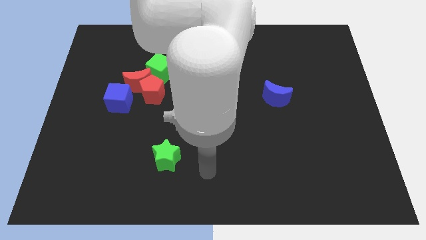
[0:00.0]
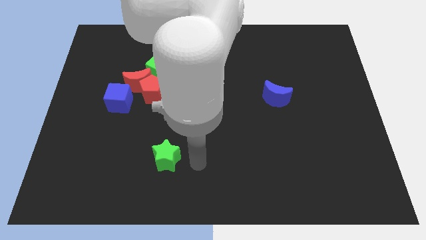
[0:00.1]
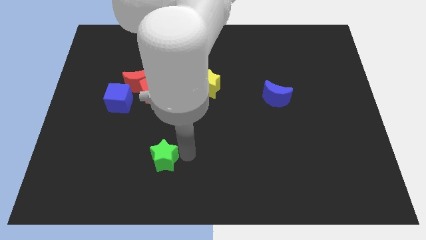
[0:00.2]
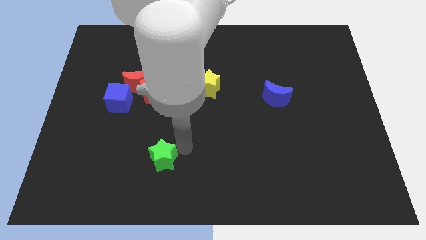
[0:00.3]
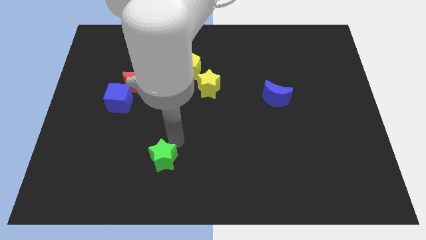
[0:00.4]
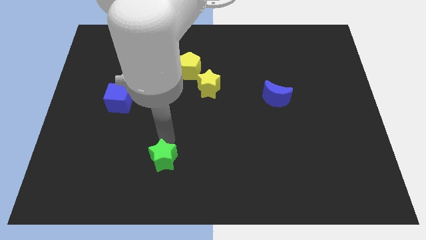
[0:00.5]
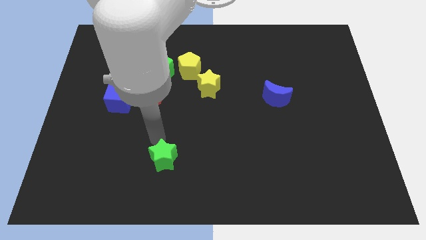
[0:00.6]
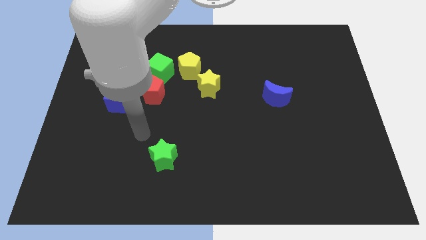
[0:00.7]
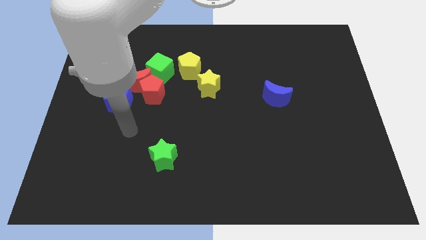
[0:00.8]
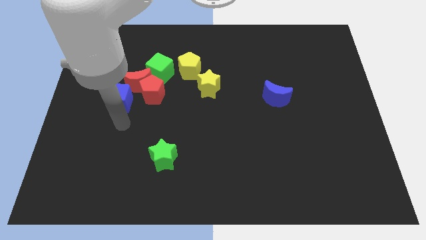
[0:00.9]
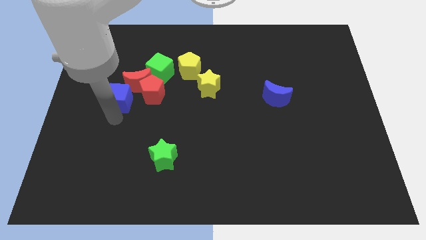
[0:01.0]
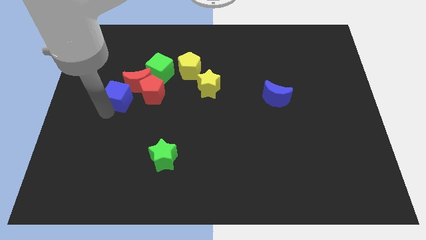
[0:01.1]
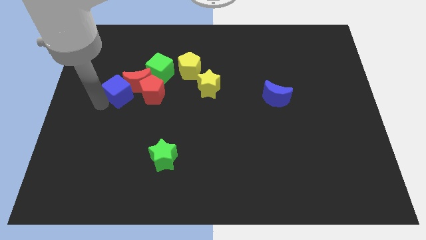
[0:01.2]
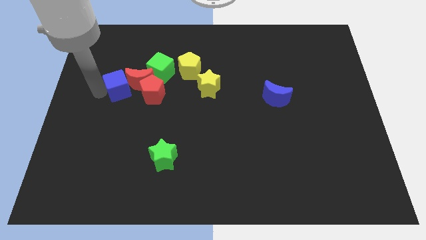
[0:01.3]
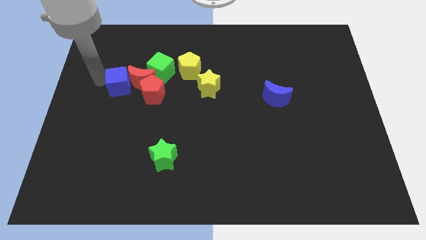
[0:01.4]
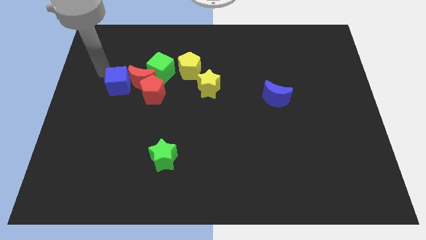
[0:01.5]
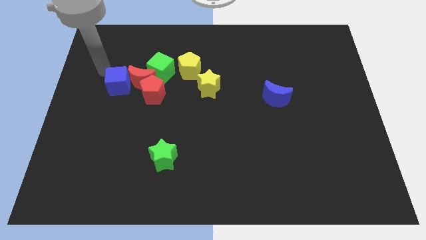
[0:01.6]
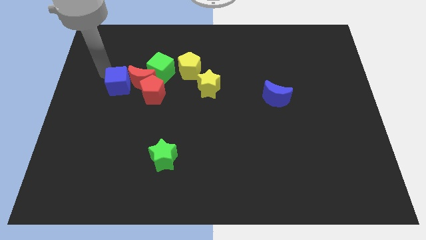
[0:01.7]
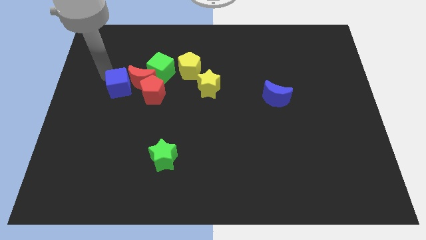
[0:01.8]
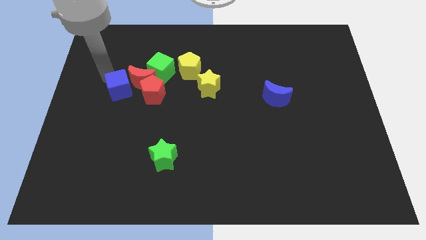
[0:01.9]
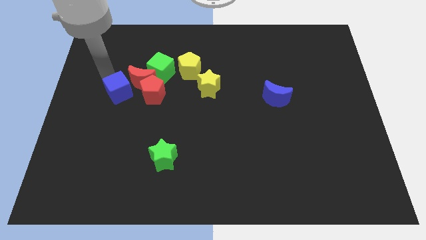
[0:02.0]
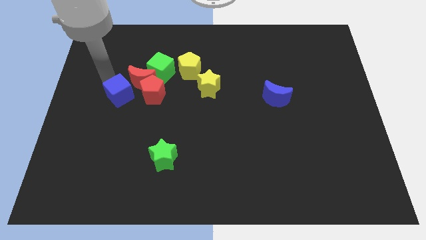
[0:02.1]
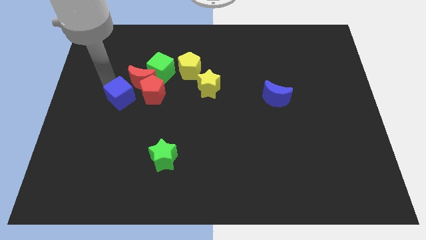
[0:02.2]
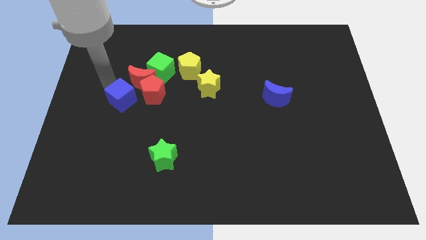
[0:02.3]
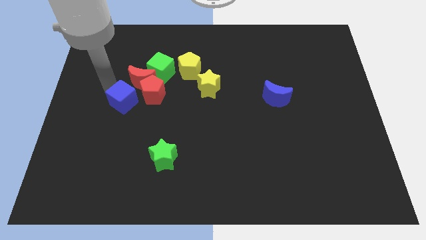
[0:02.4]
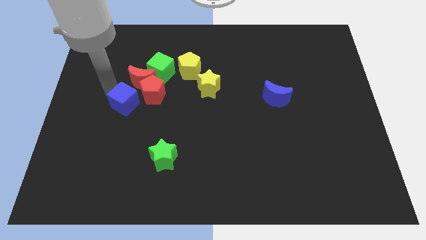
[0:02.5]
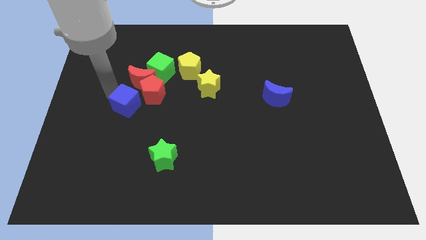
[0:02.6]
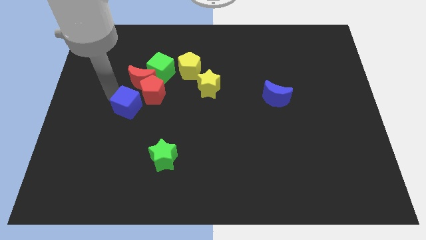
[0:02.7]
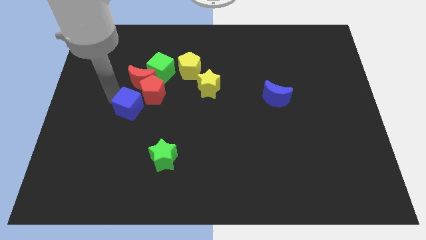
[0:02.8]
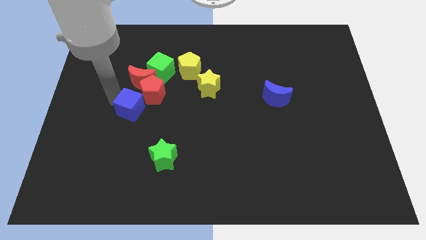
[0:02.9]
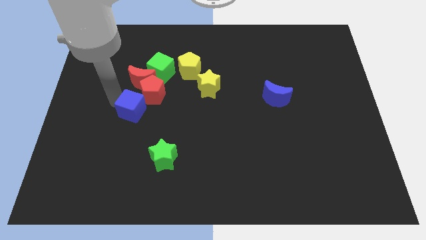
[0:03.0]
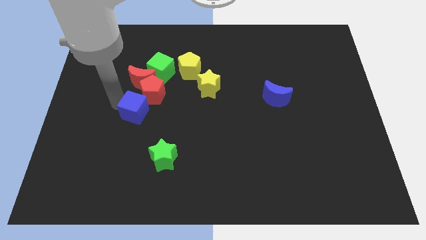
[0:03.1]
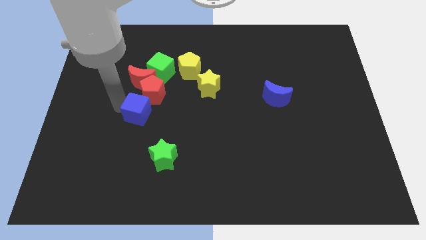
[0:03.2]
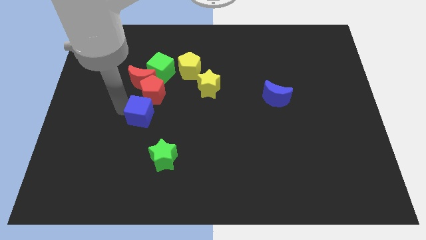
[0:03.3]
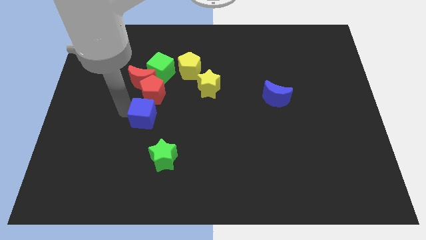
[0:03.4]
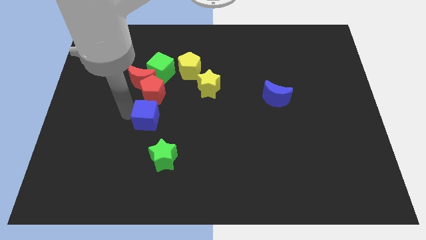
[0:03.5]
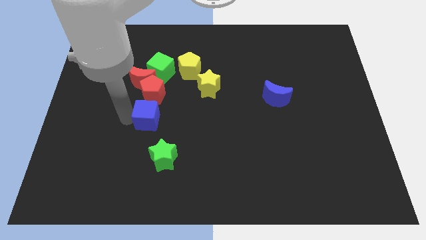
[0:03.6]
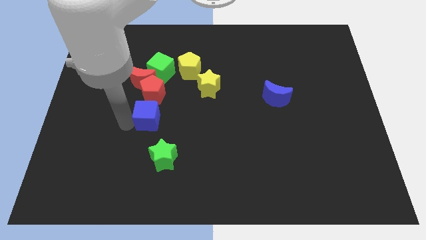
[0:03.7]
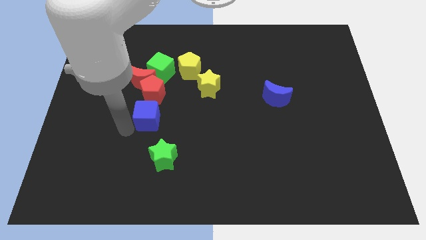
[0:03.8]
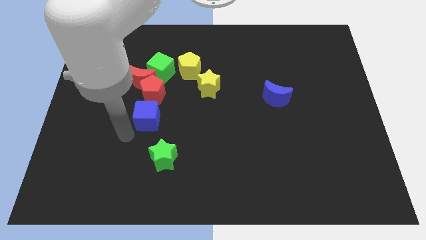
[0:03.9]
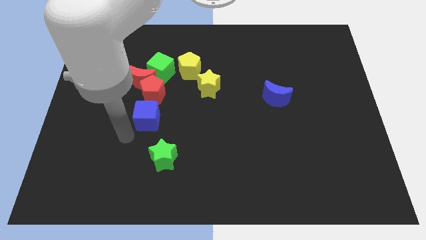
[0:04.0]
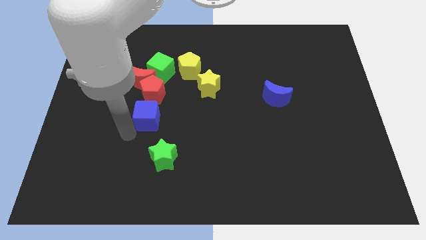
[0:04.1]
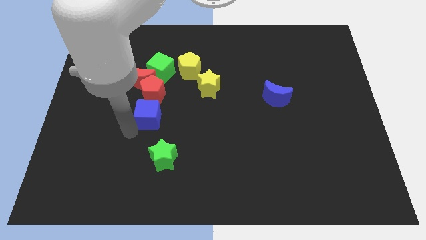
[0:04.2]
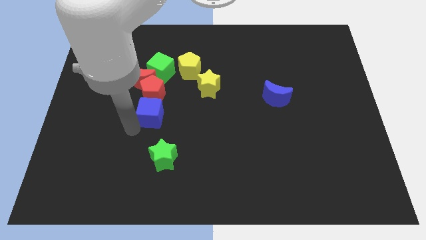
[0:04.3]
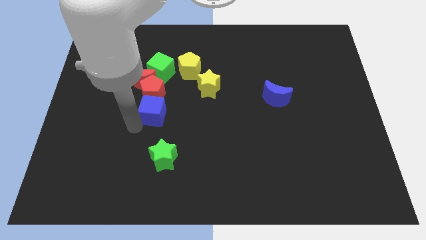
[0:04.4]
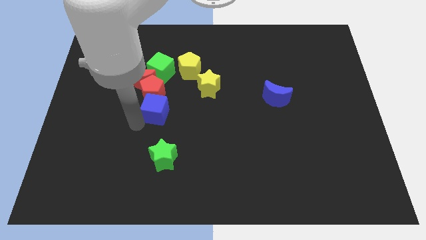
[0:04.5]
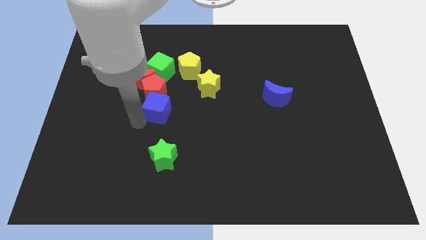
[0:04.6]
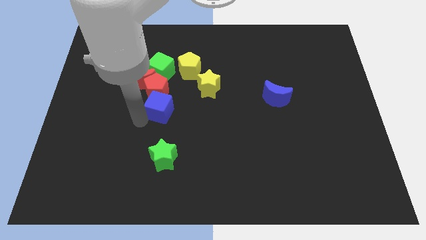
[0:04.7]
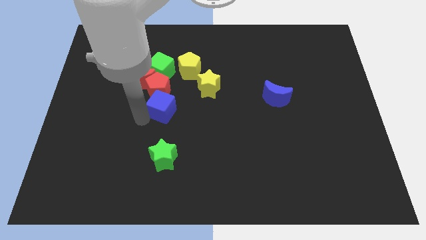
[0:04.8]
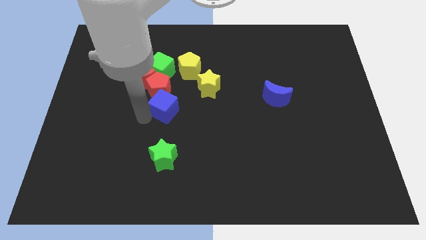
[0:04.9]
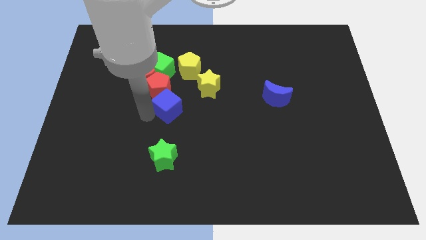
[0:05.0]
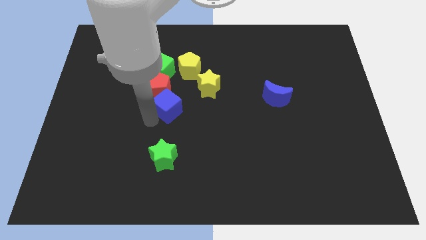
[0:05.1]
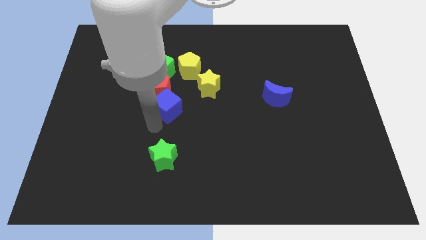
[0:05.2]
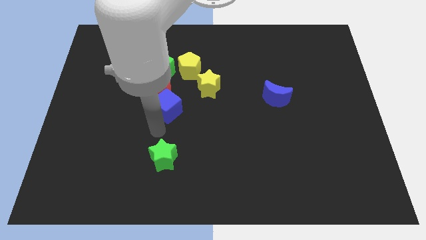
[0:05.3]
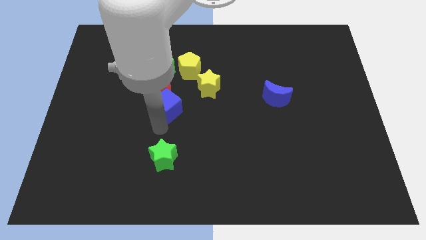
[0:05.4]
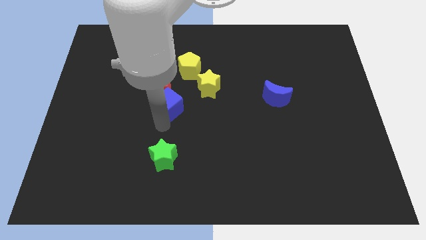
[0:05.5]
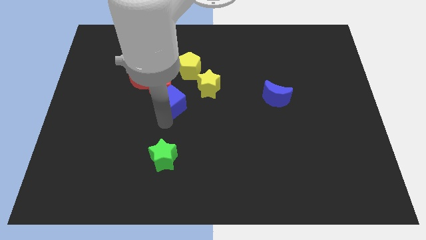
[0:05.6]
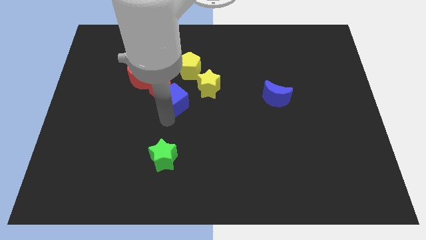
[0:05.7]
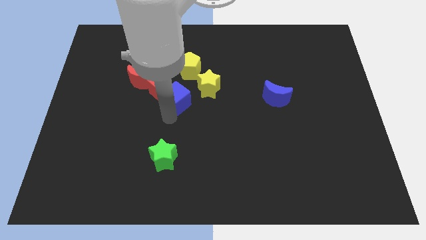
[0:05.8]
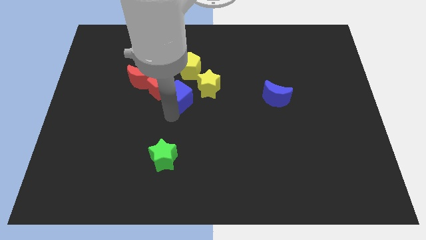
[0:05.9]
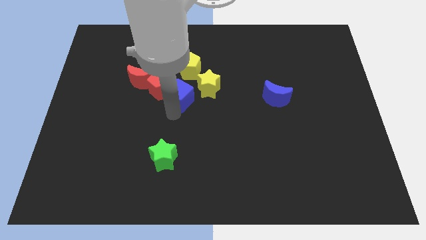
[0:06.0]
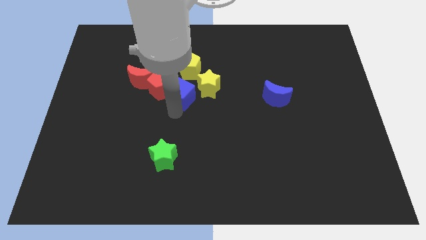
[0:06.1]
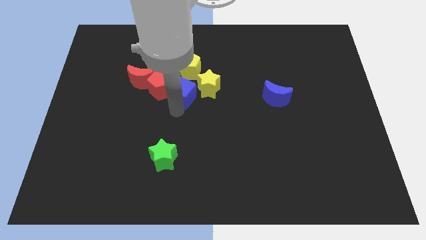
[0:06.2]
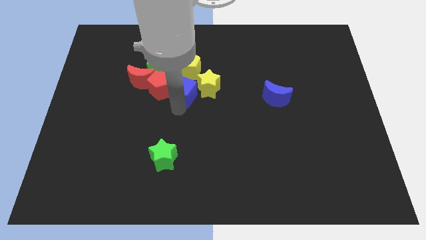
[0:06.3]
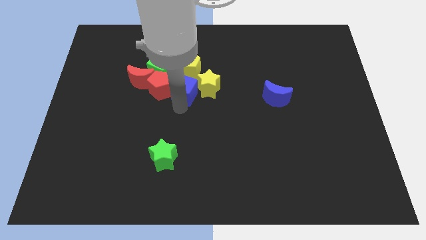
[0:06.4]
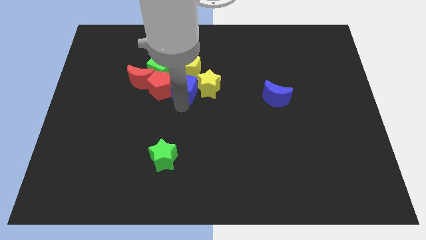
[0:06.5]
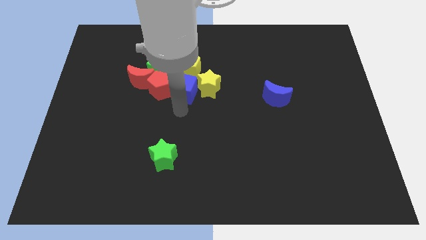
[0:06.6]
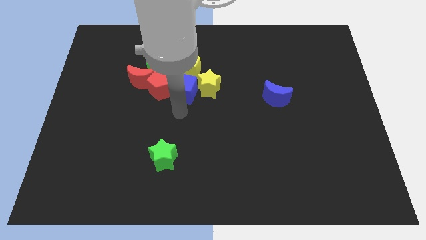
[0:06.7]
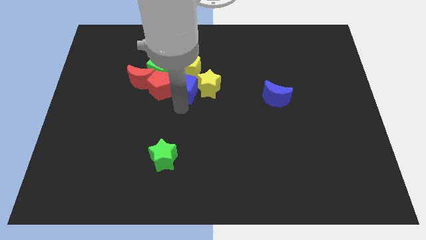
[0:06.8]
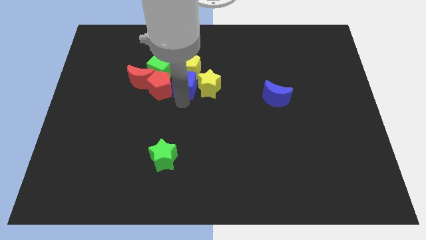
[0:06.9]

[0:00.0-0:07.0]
put the blue cube towards the yellow pentagon
